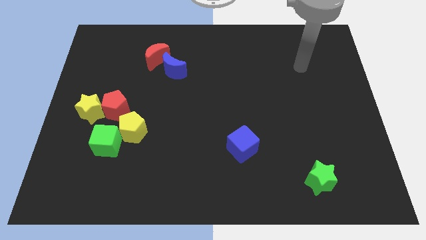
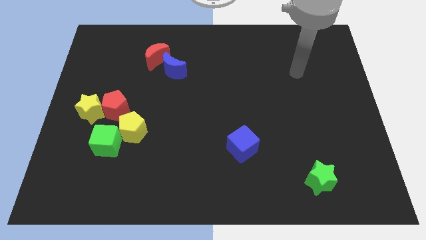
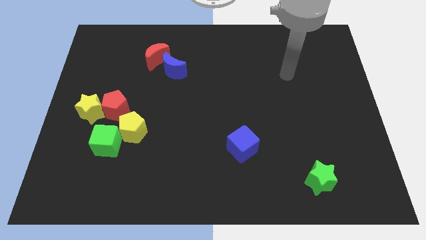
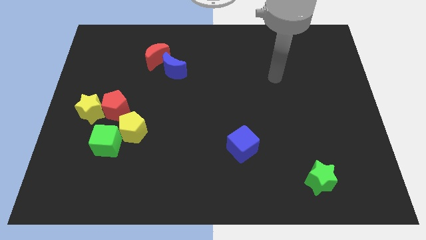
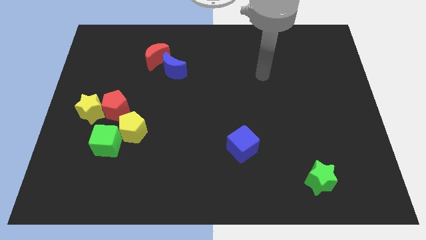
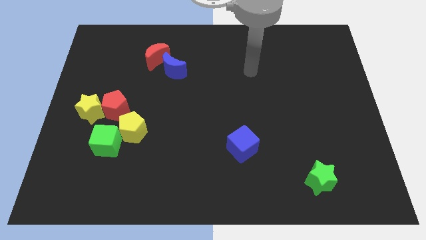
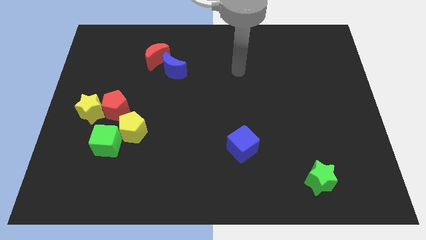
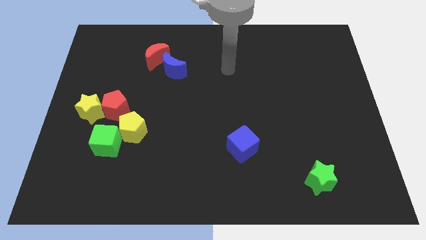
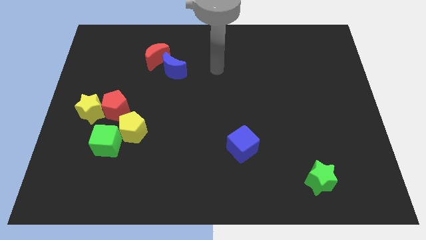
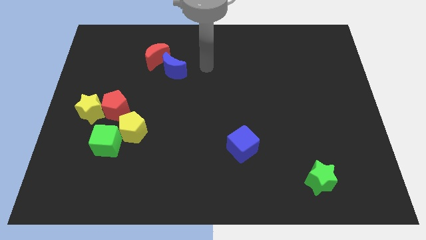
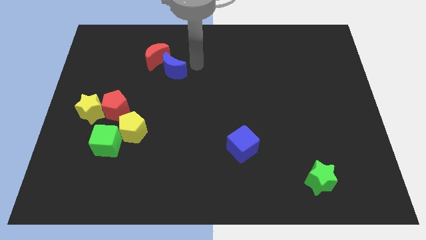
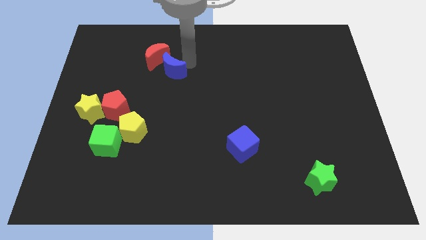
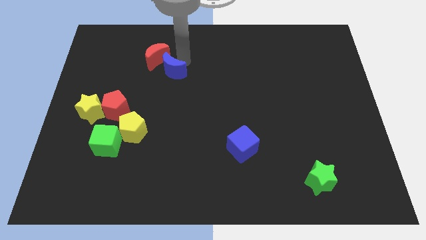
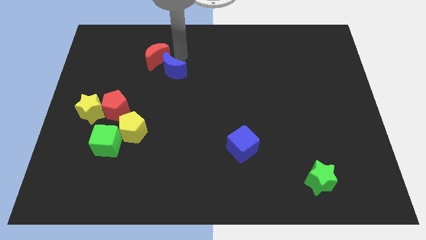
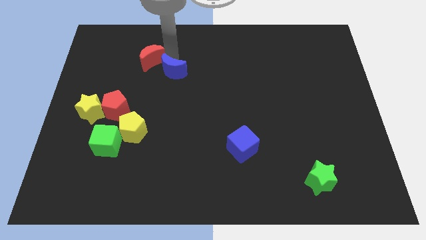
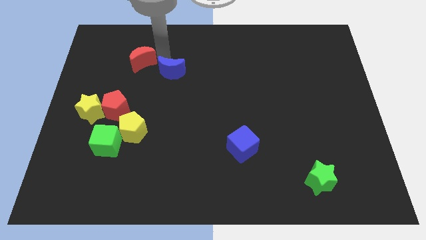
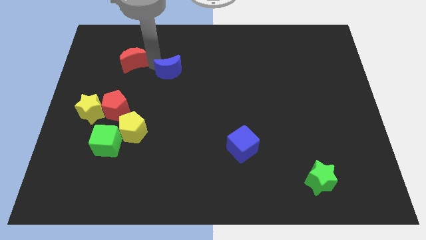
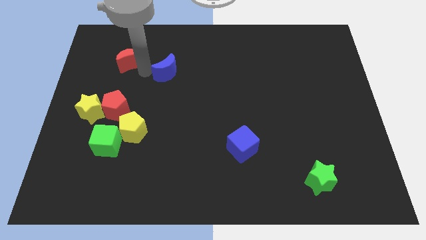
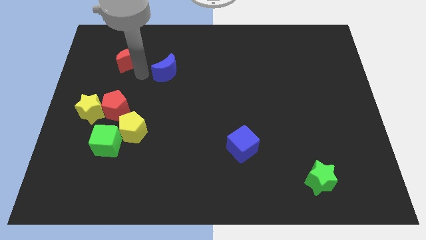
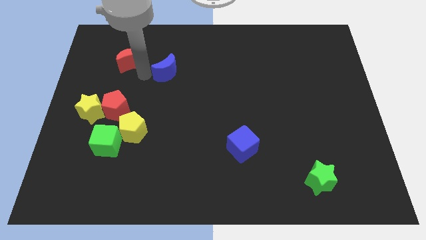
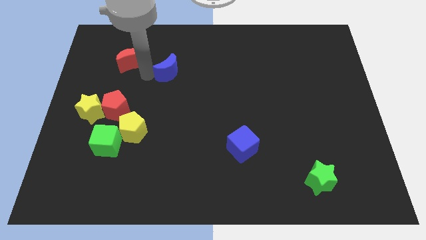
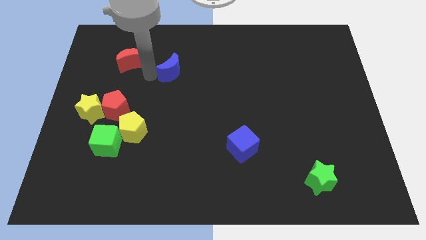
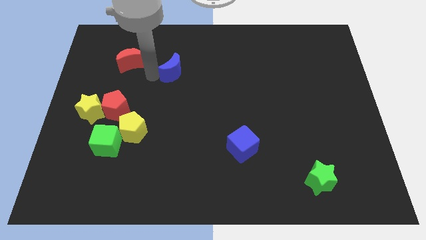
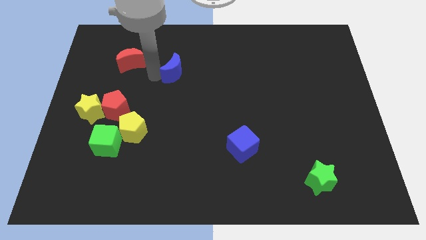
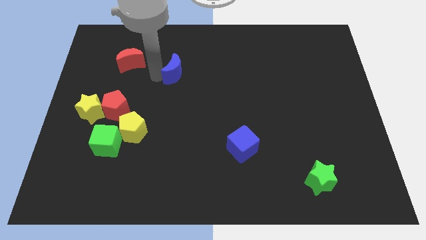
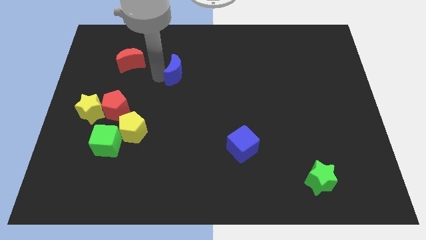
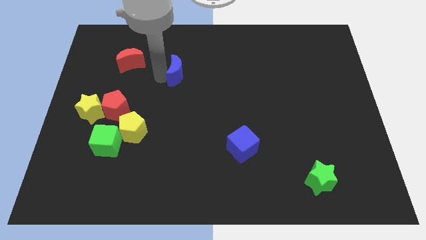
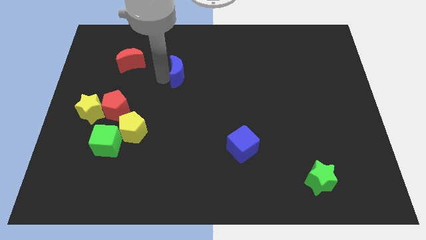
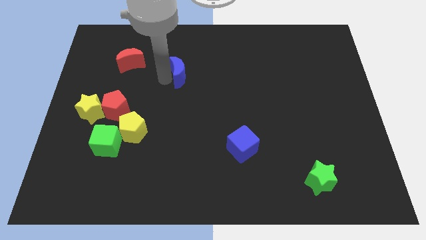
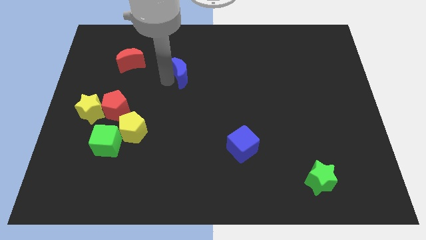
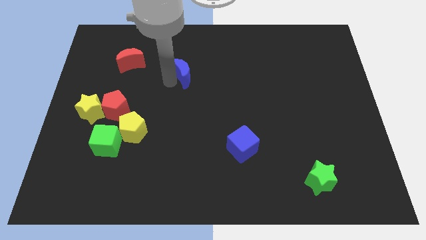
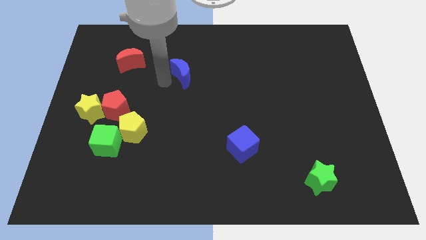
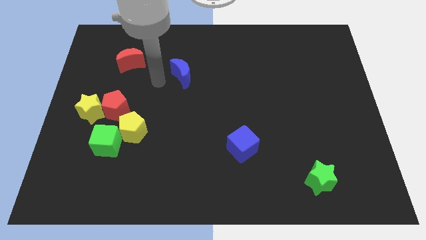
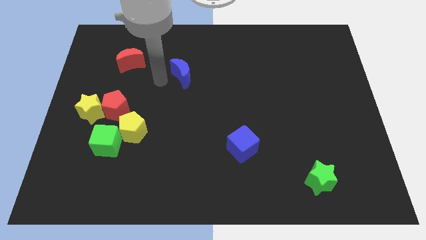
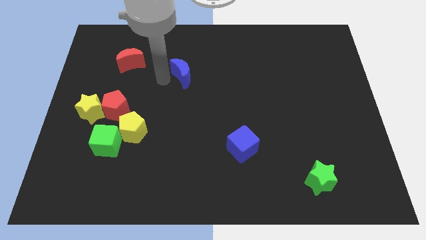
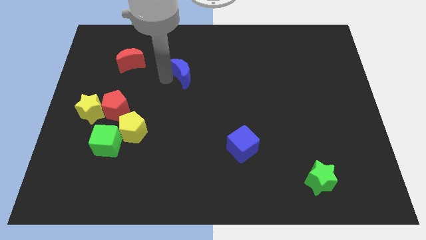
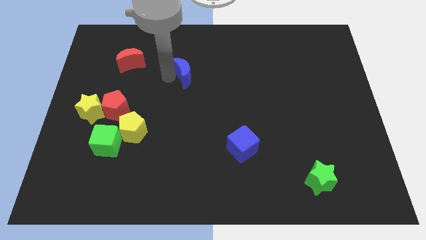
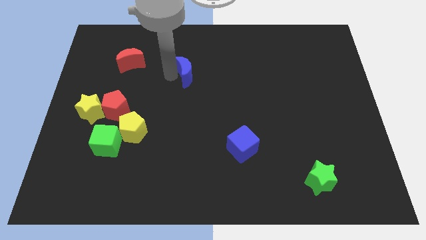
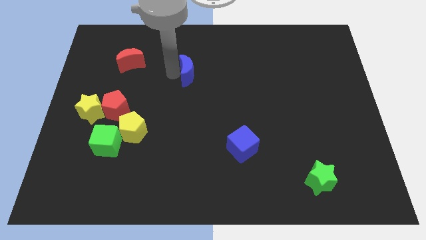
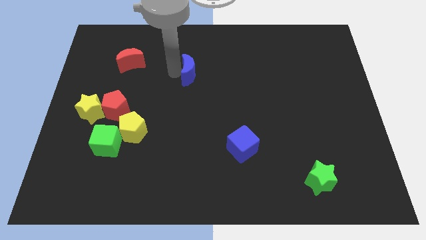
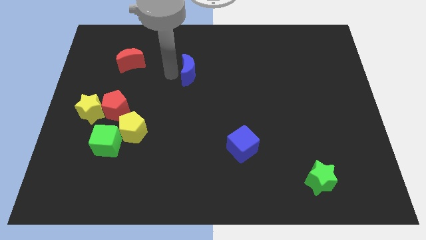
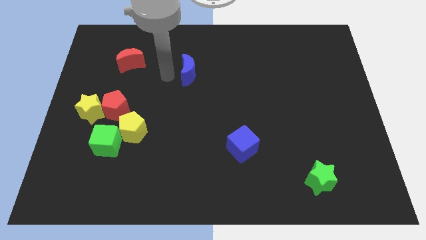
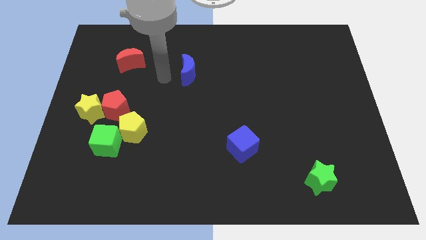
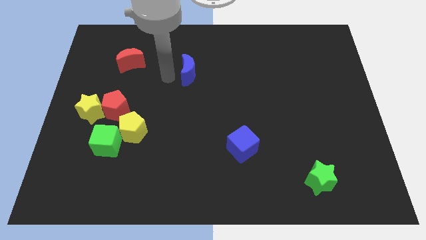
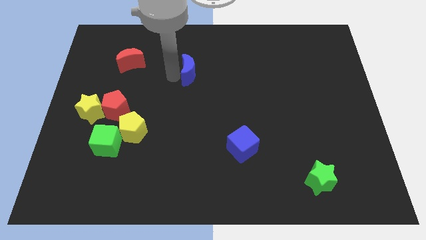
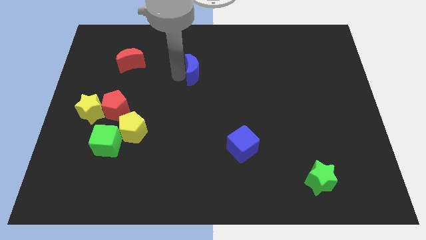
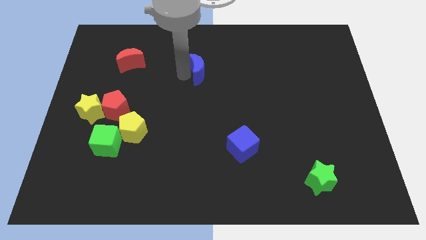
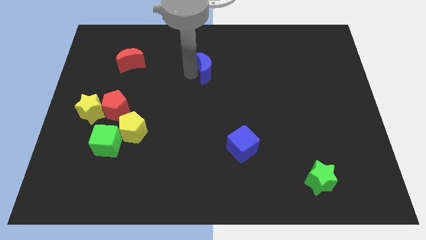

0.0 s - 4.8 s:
slightly move the blue moon right

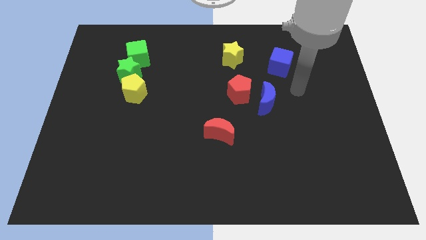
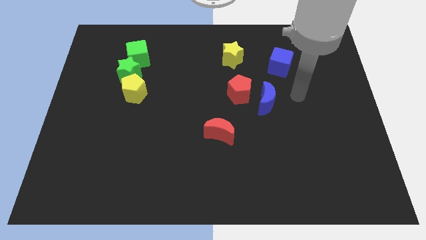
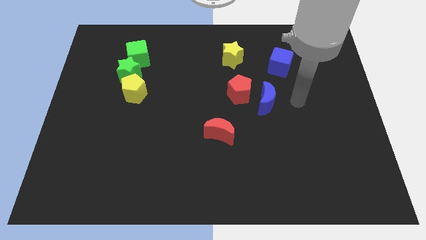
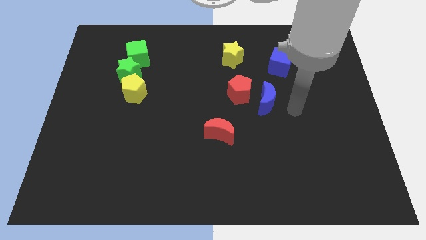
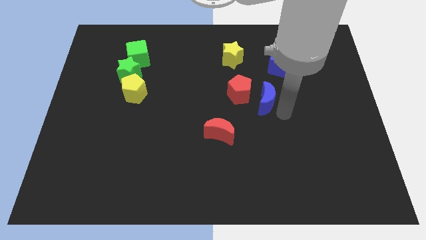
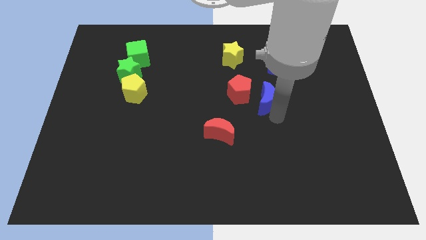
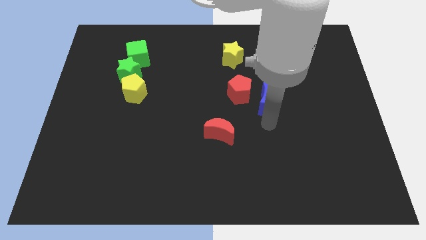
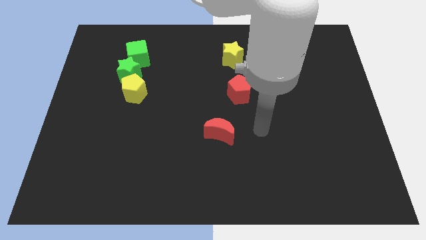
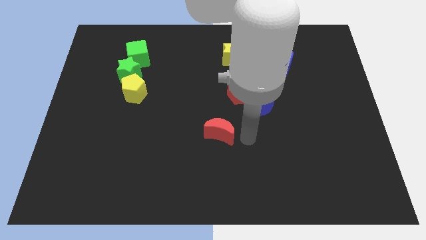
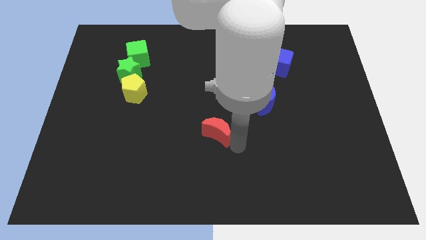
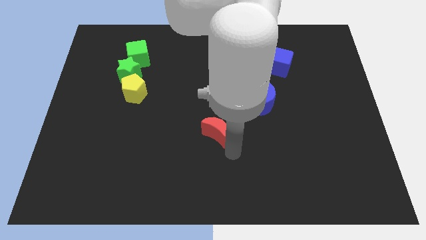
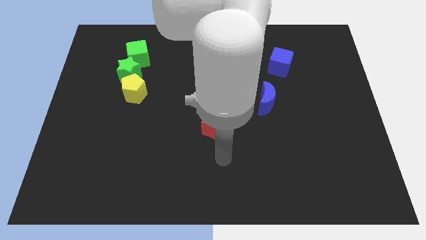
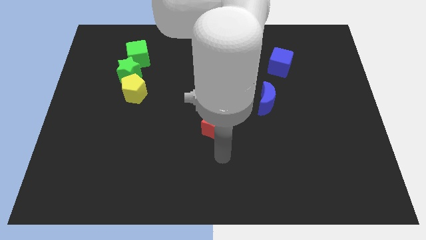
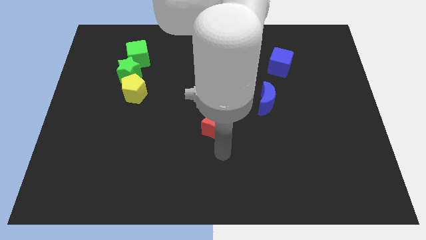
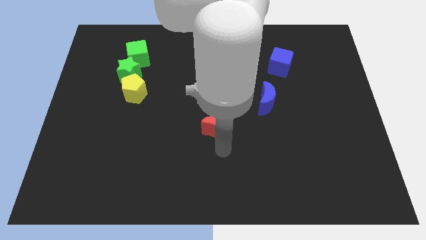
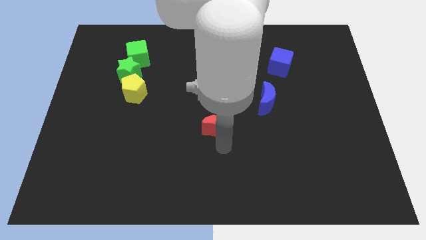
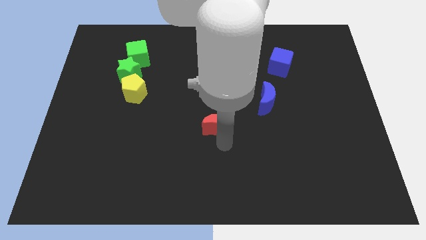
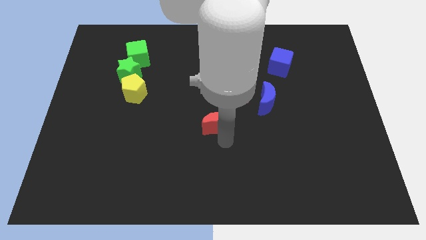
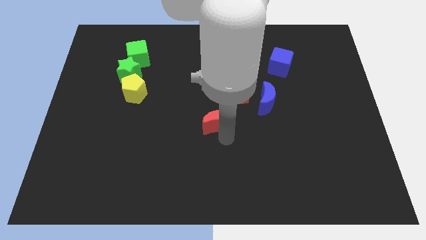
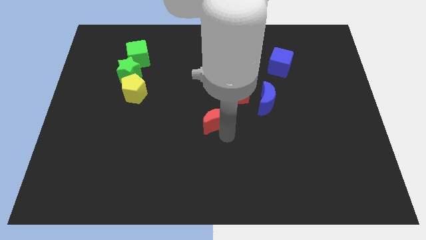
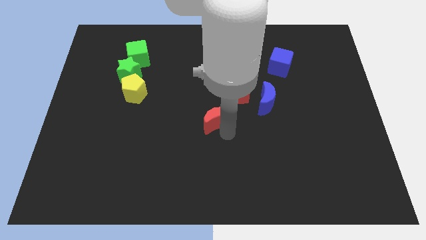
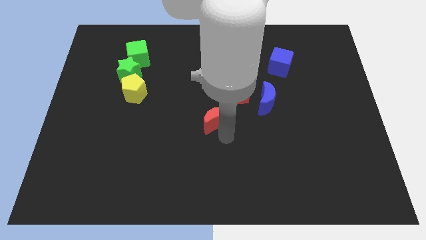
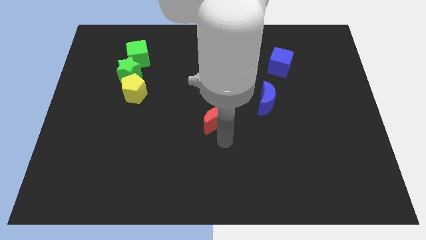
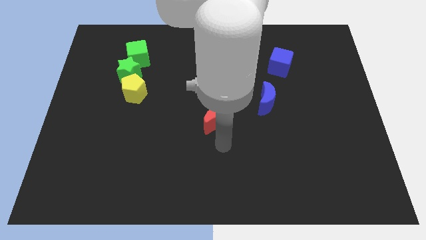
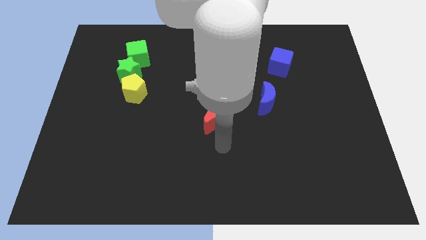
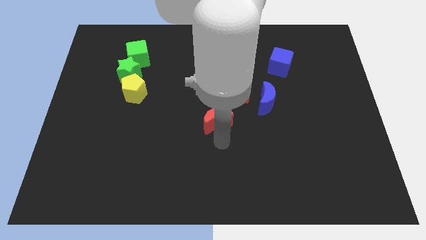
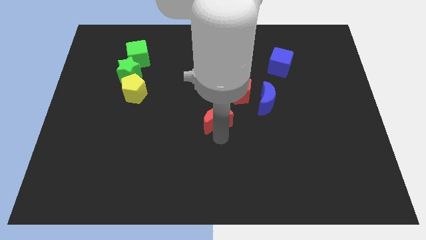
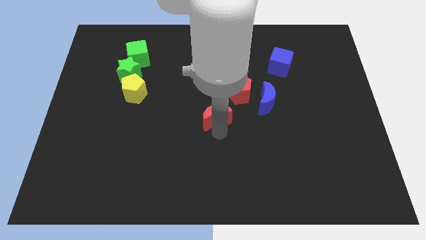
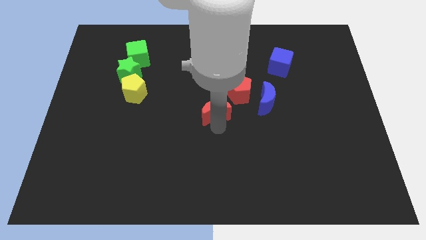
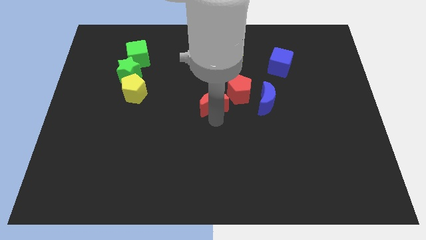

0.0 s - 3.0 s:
push the red moon slightly up
